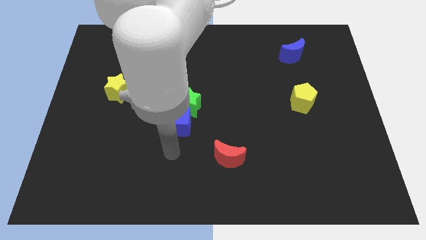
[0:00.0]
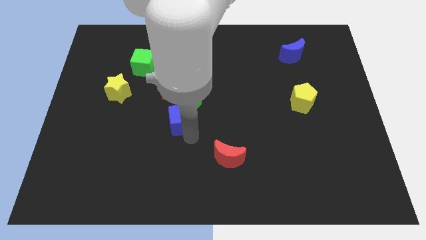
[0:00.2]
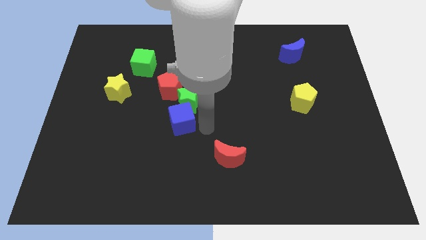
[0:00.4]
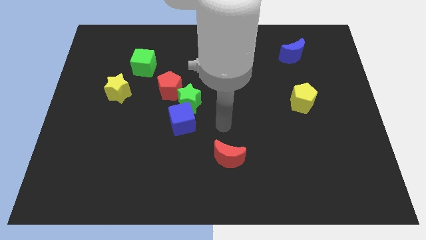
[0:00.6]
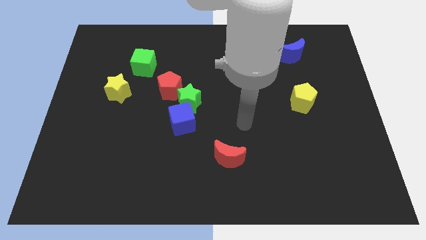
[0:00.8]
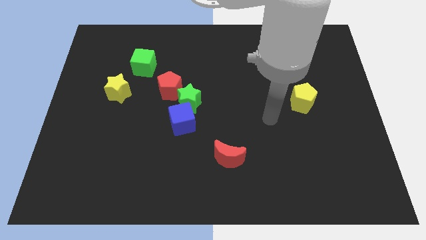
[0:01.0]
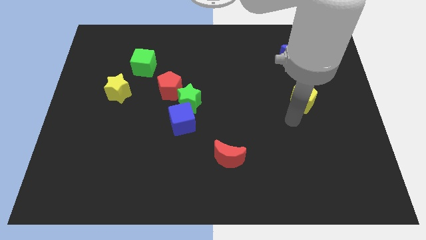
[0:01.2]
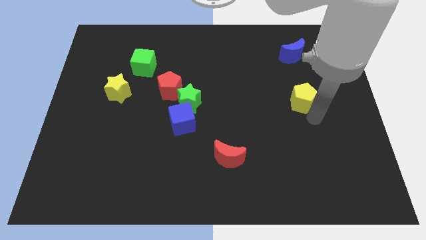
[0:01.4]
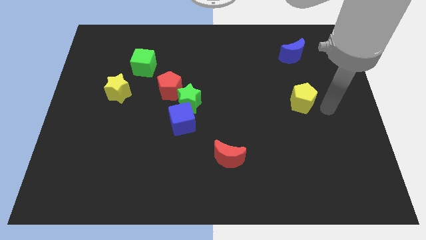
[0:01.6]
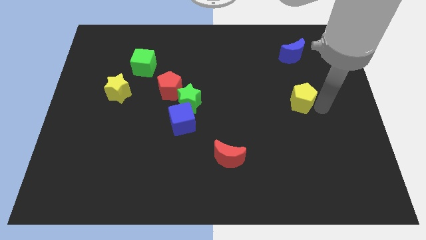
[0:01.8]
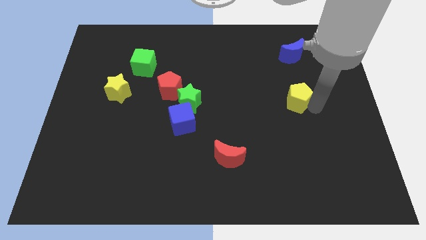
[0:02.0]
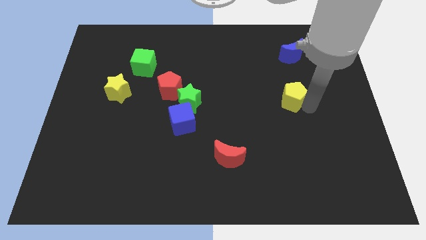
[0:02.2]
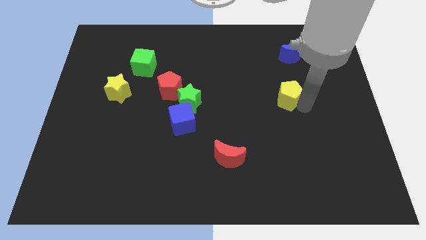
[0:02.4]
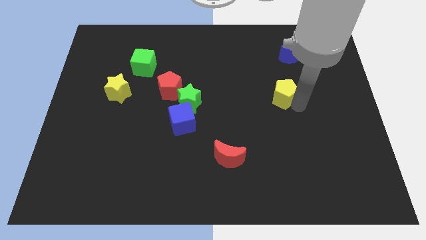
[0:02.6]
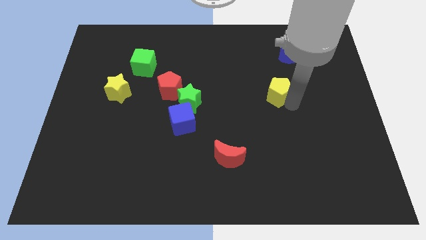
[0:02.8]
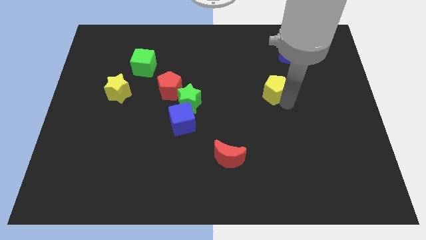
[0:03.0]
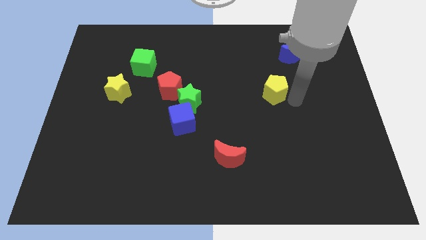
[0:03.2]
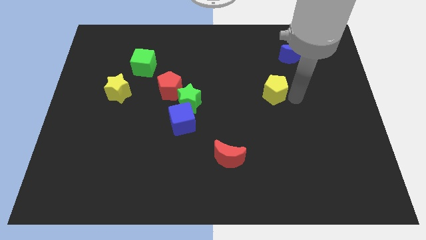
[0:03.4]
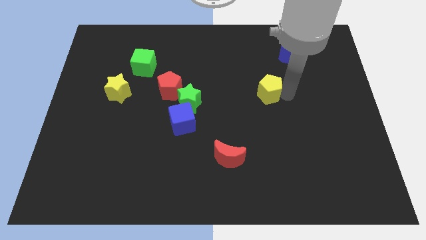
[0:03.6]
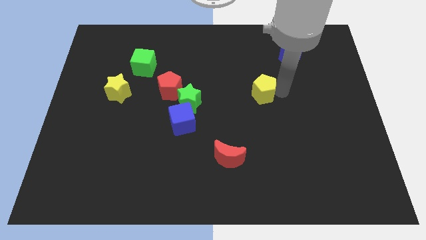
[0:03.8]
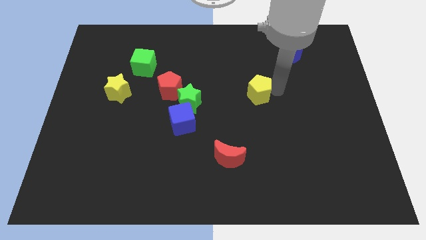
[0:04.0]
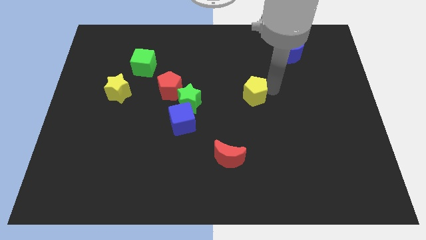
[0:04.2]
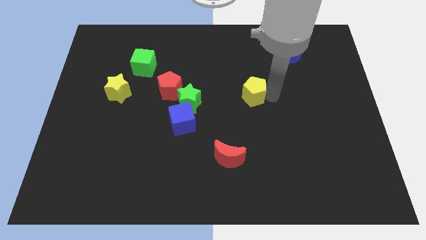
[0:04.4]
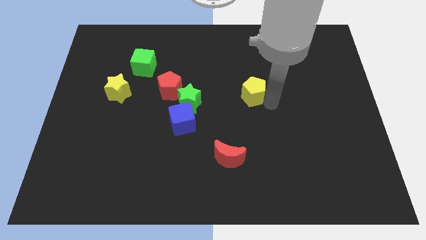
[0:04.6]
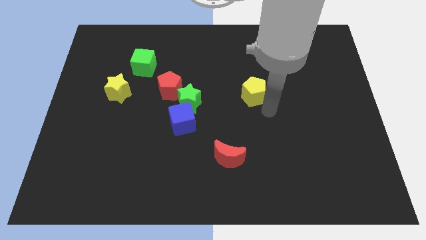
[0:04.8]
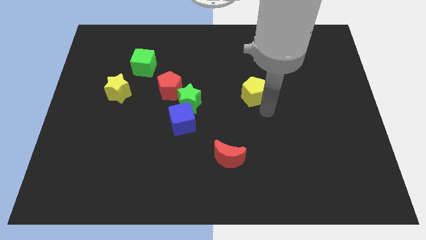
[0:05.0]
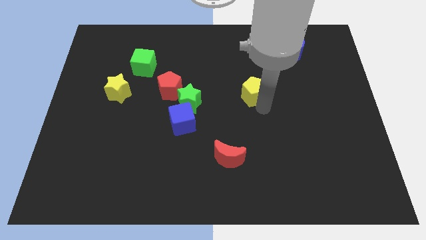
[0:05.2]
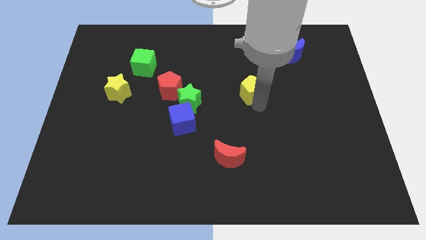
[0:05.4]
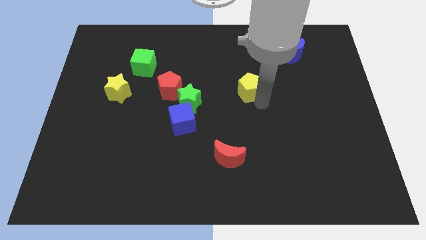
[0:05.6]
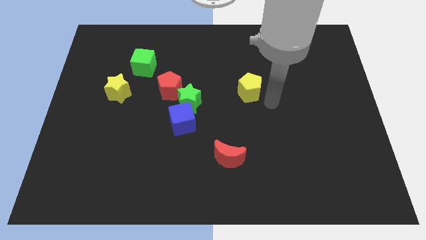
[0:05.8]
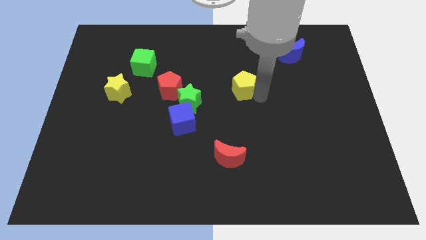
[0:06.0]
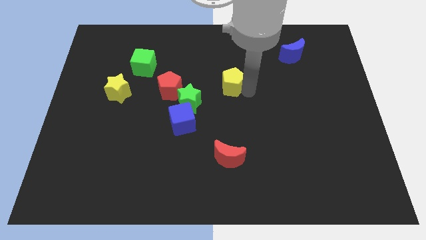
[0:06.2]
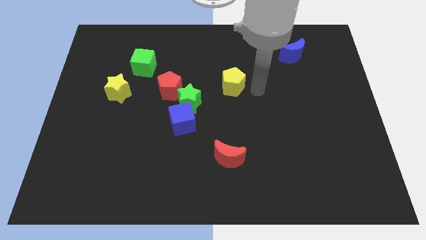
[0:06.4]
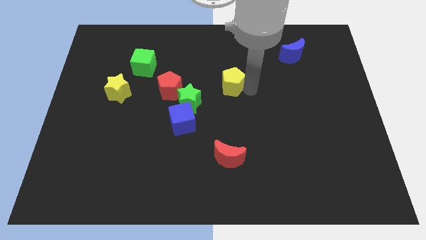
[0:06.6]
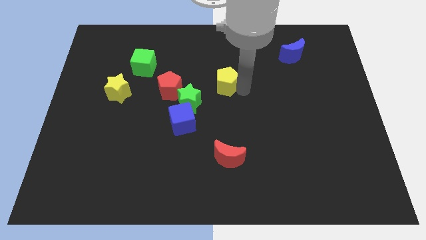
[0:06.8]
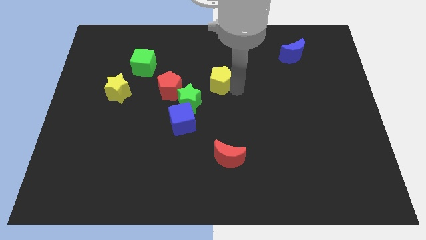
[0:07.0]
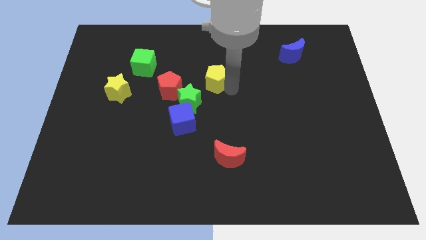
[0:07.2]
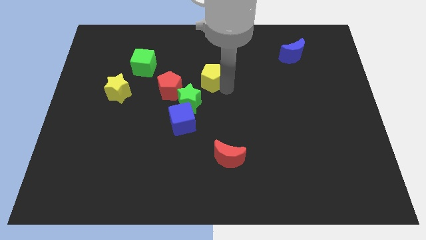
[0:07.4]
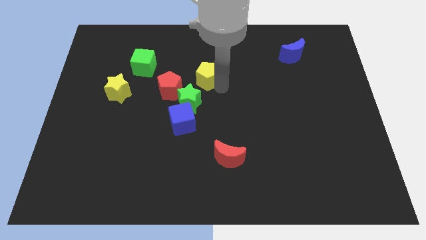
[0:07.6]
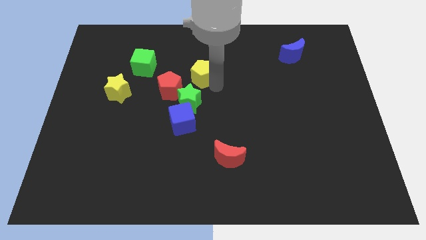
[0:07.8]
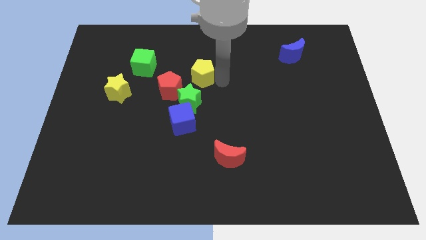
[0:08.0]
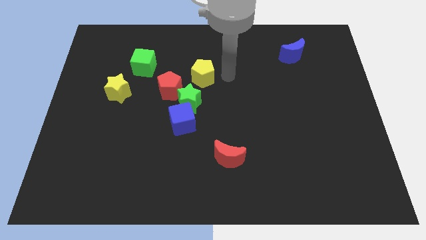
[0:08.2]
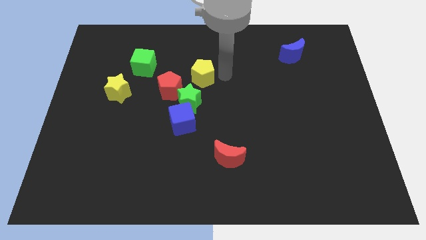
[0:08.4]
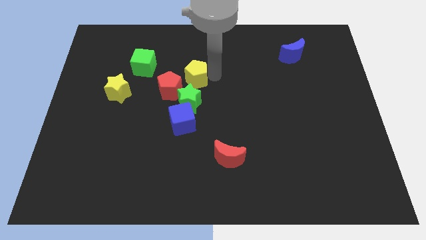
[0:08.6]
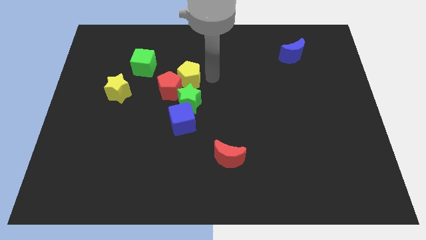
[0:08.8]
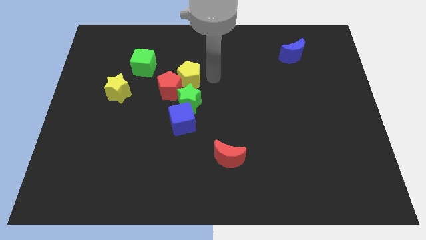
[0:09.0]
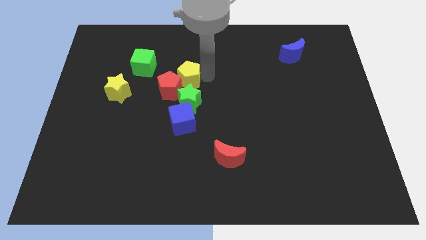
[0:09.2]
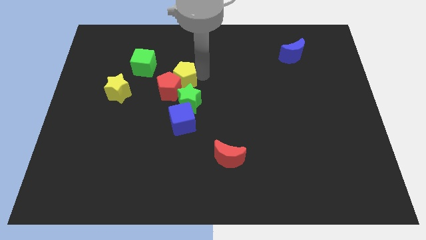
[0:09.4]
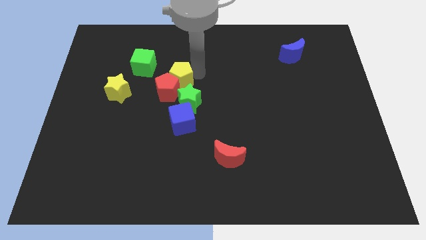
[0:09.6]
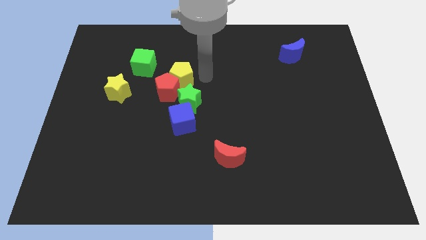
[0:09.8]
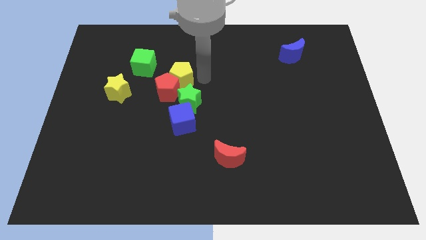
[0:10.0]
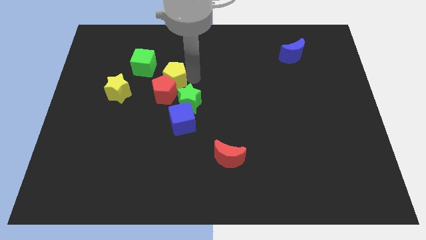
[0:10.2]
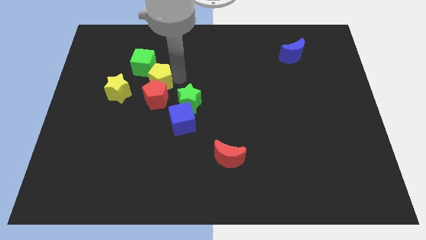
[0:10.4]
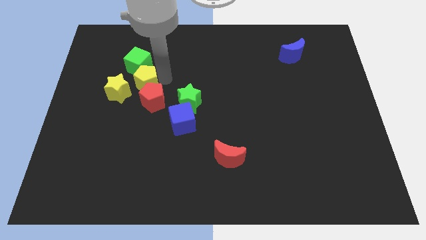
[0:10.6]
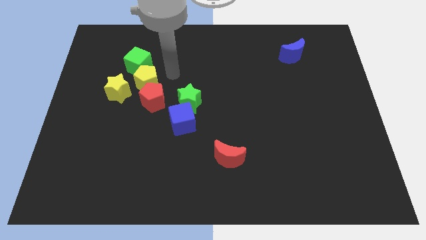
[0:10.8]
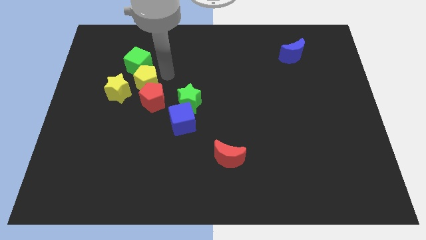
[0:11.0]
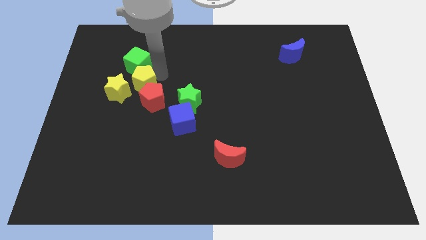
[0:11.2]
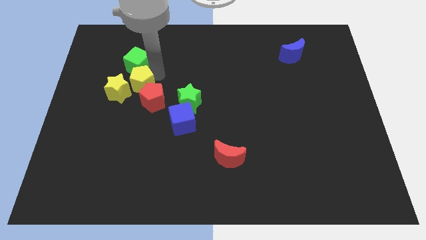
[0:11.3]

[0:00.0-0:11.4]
slide the yellow pentagon close to the yellow star
